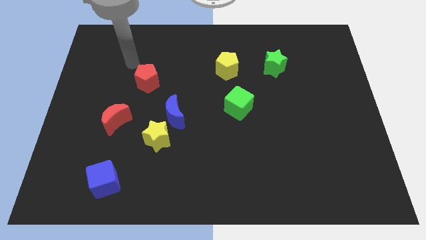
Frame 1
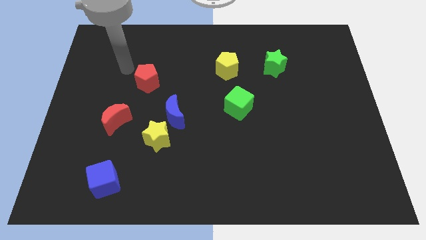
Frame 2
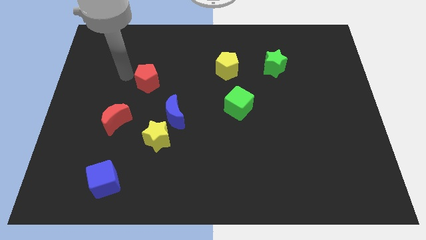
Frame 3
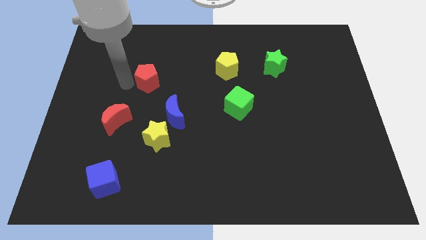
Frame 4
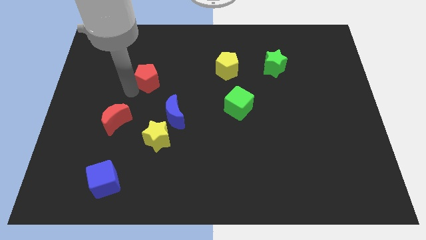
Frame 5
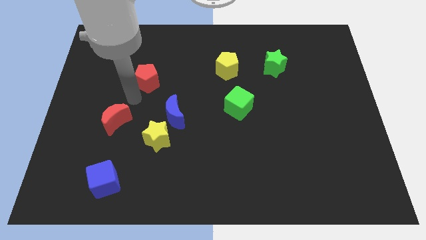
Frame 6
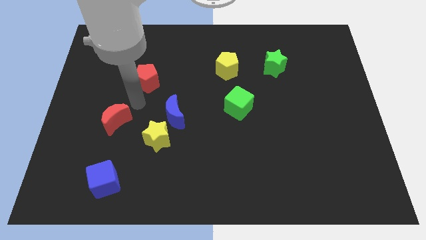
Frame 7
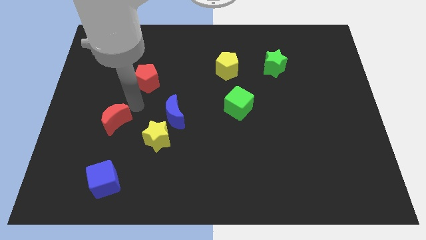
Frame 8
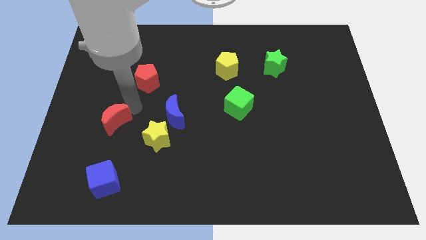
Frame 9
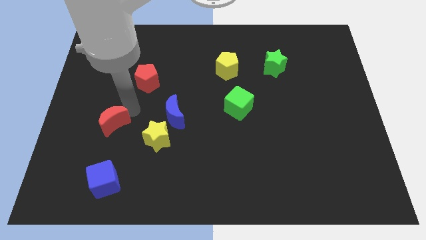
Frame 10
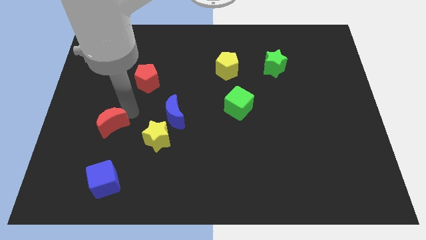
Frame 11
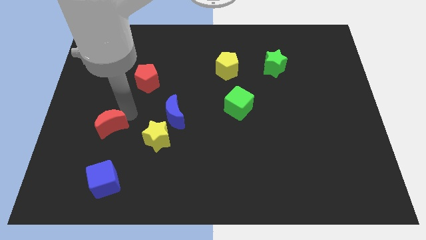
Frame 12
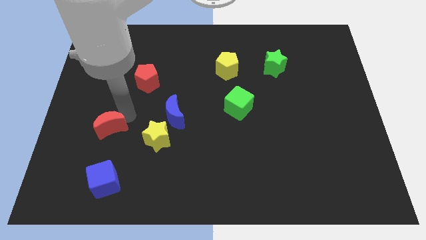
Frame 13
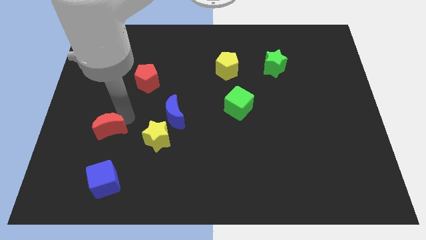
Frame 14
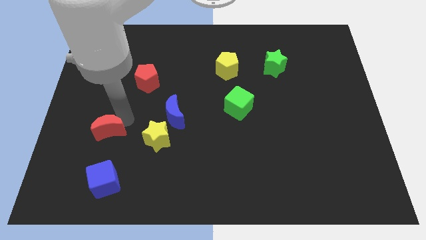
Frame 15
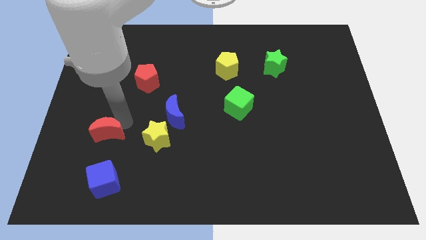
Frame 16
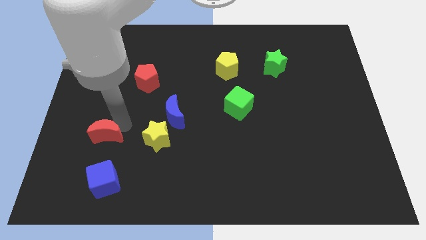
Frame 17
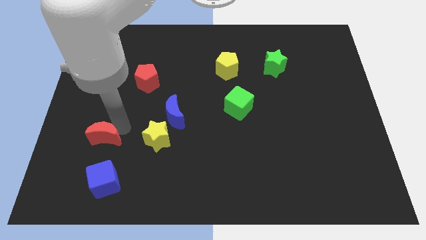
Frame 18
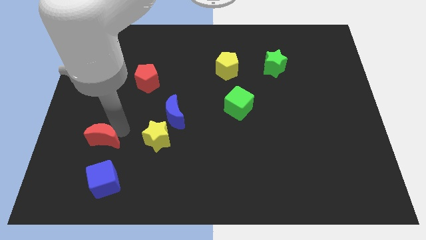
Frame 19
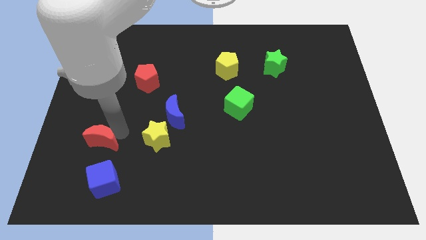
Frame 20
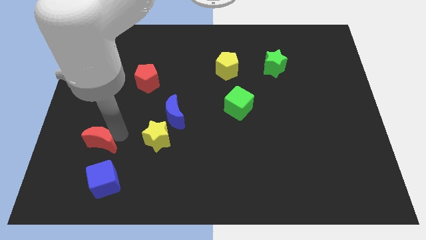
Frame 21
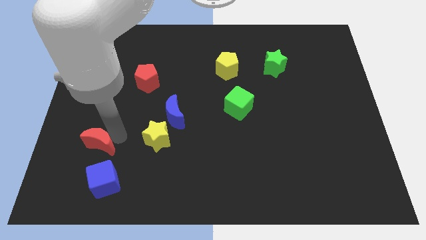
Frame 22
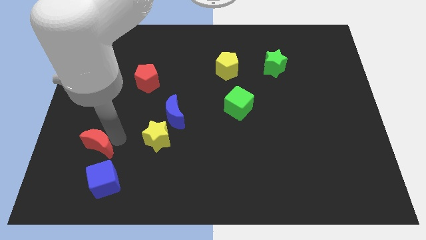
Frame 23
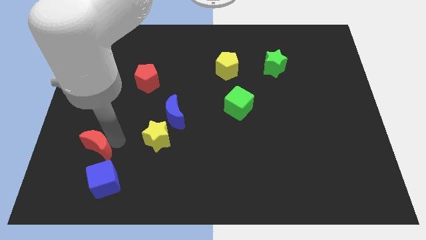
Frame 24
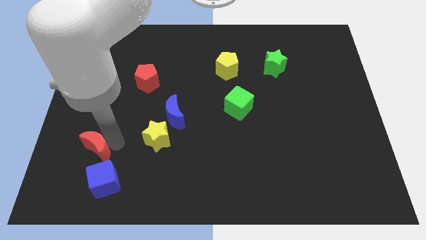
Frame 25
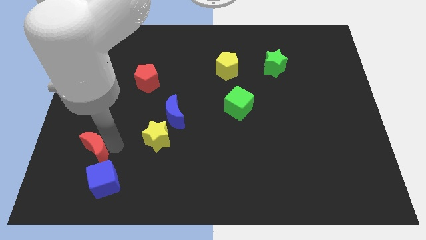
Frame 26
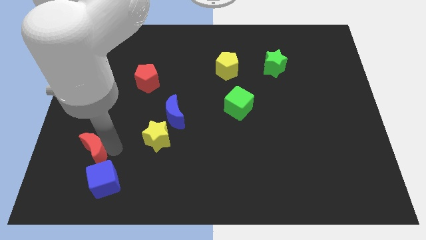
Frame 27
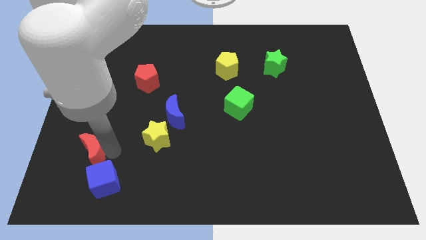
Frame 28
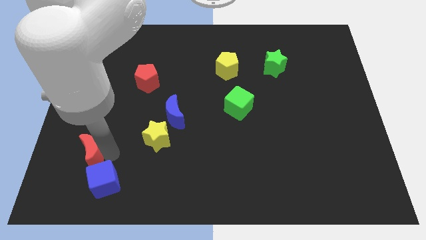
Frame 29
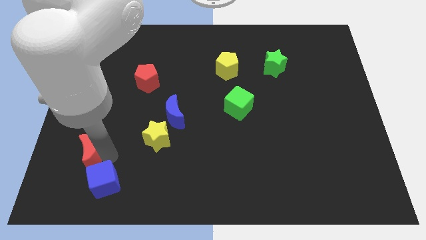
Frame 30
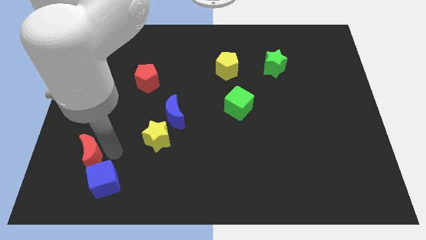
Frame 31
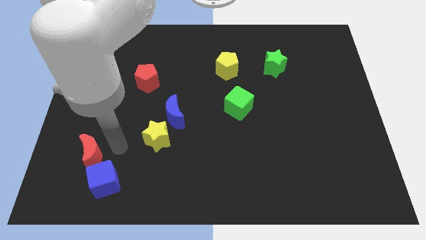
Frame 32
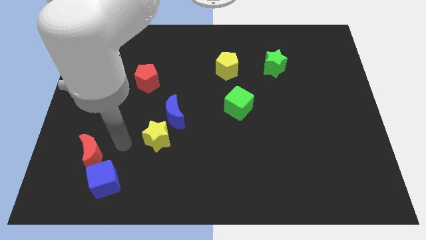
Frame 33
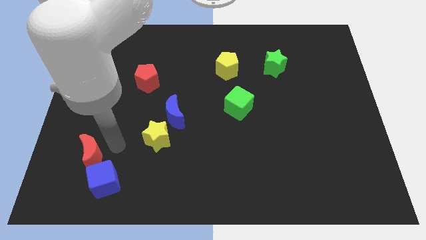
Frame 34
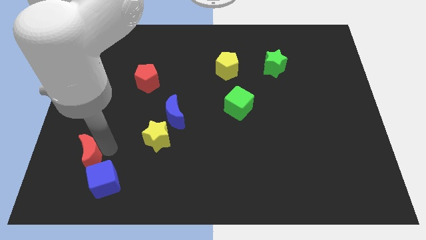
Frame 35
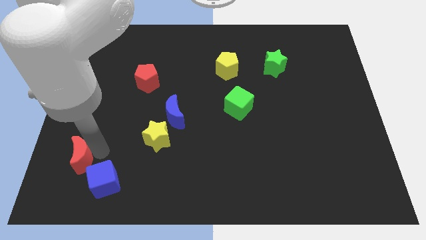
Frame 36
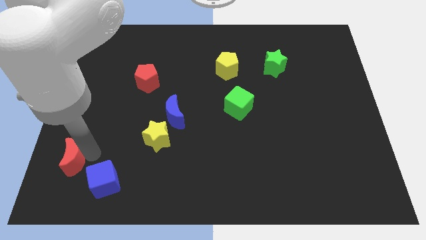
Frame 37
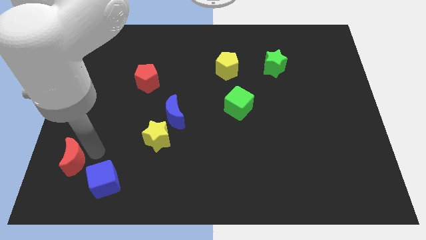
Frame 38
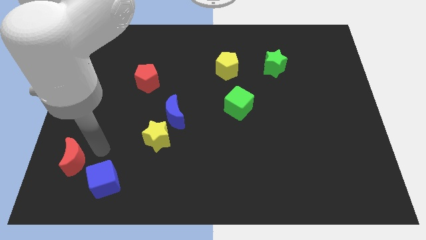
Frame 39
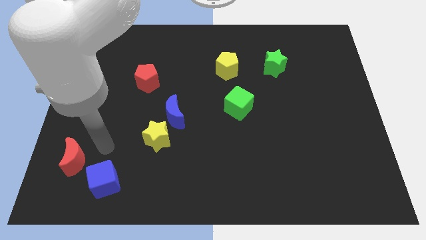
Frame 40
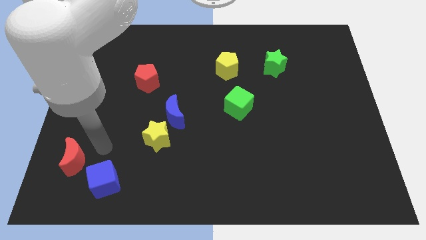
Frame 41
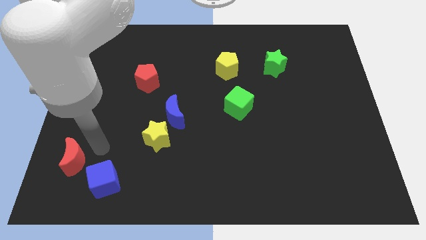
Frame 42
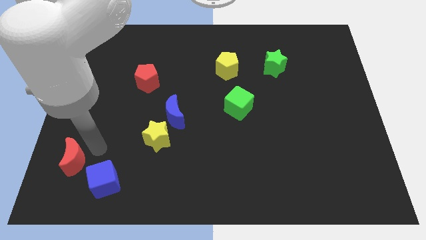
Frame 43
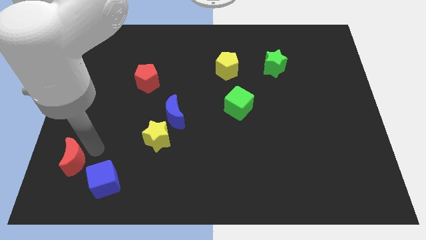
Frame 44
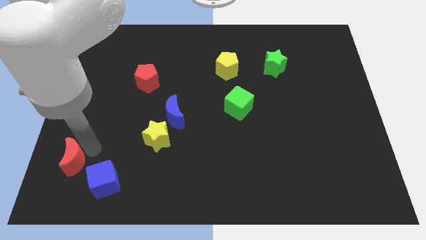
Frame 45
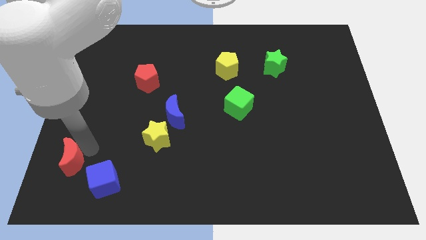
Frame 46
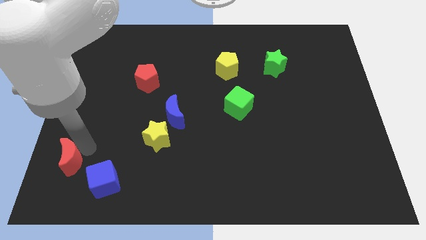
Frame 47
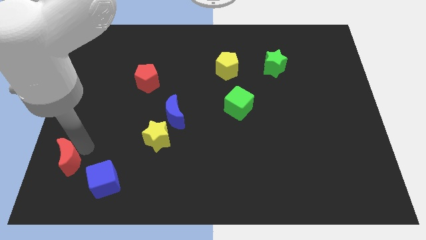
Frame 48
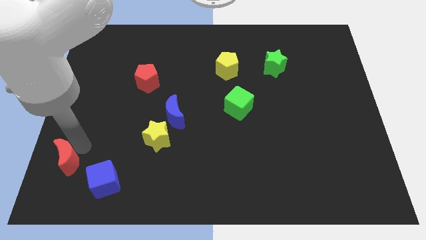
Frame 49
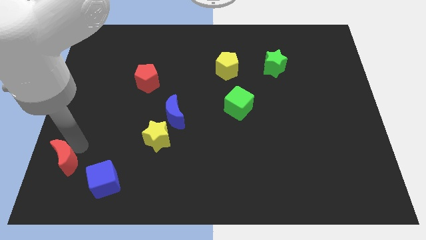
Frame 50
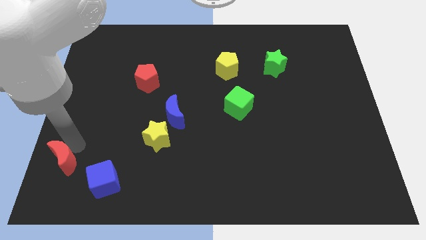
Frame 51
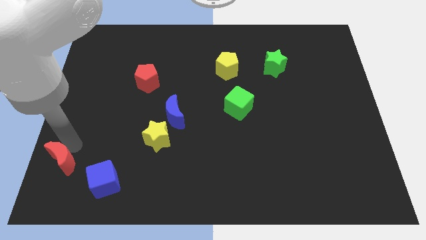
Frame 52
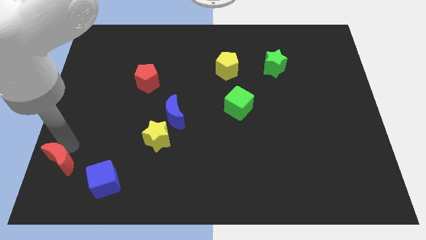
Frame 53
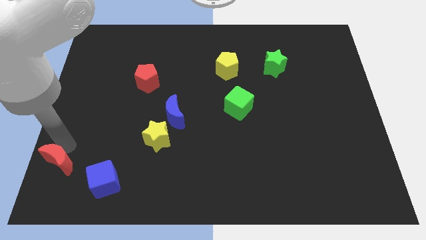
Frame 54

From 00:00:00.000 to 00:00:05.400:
put the red moon to the lower left corner
